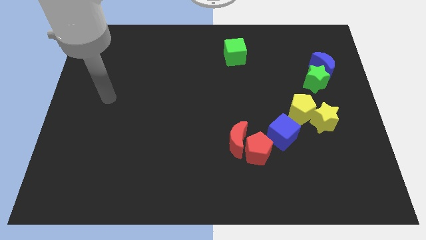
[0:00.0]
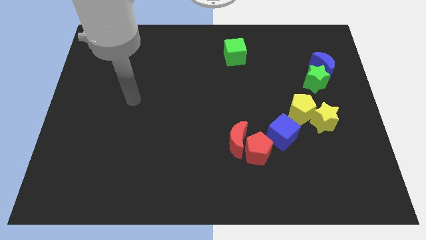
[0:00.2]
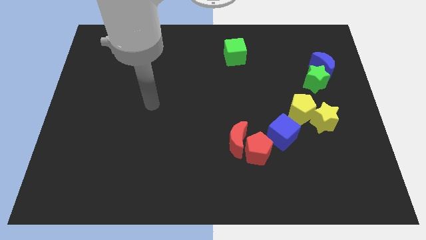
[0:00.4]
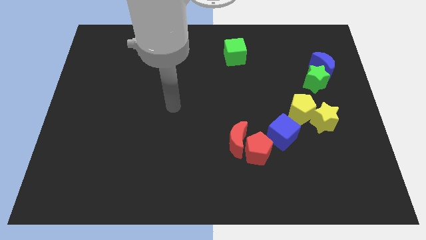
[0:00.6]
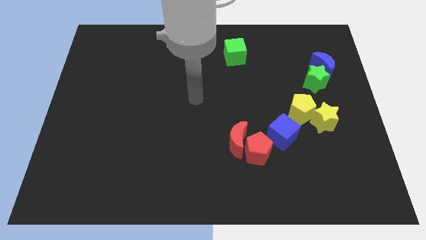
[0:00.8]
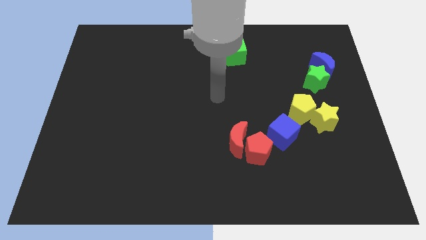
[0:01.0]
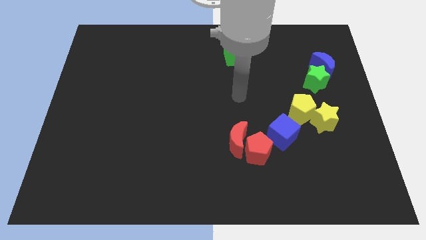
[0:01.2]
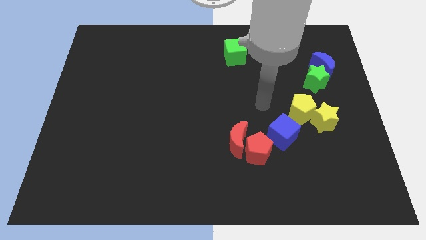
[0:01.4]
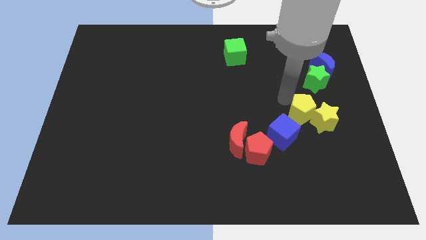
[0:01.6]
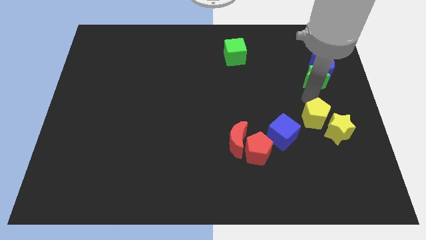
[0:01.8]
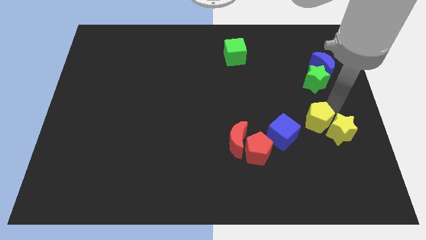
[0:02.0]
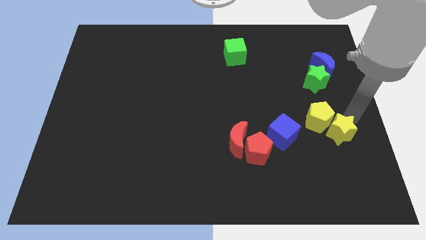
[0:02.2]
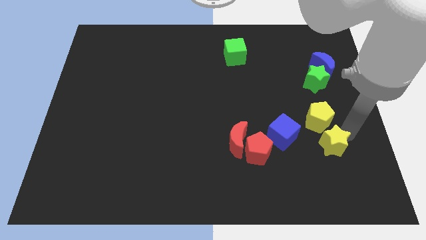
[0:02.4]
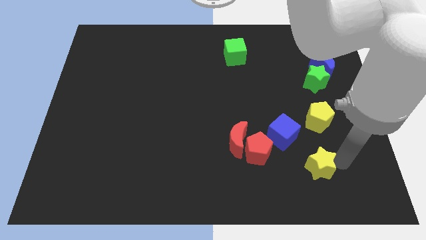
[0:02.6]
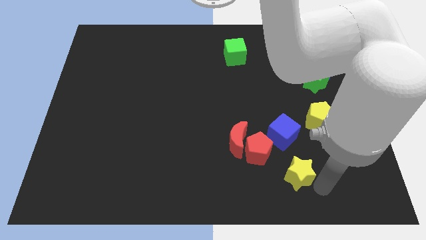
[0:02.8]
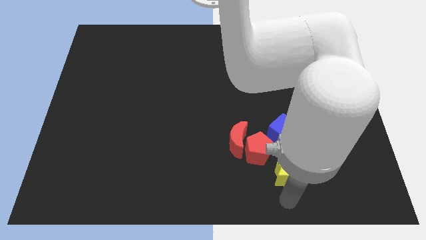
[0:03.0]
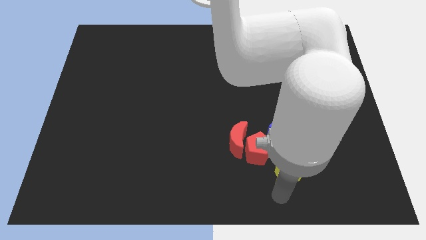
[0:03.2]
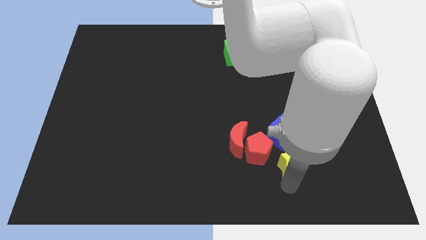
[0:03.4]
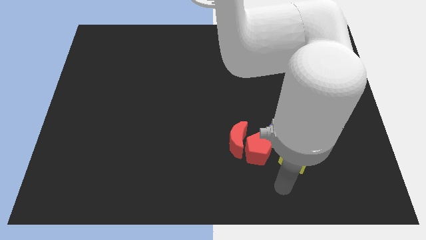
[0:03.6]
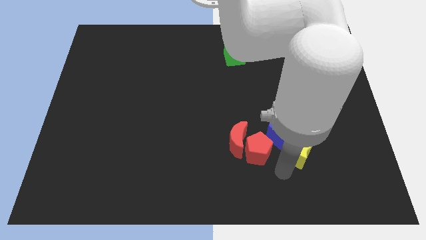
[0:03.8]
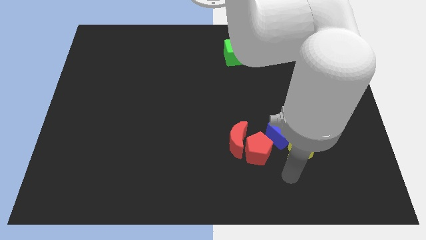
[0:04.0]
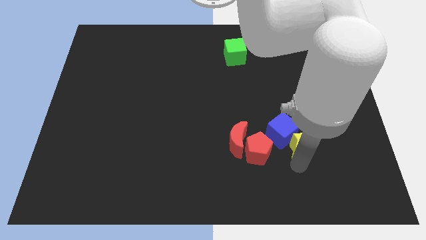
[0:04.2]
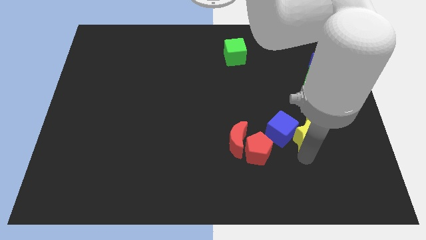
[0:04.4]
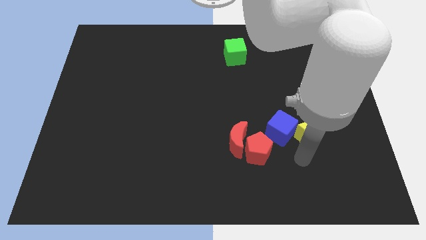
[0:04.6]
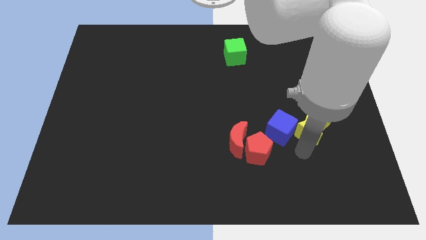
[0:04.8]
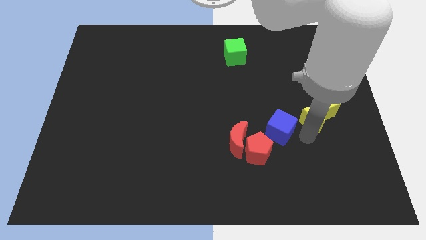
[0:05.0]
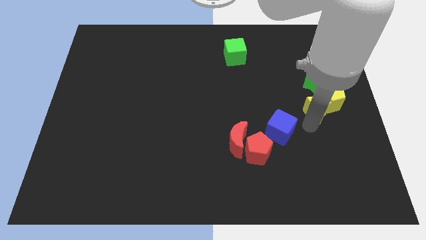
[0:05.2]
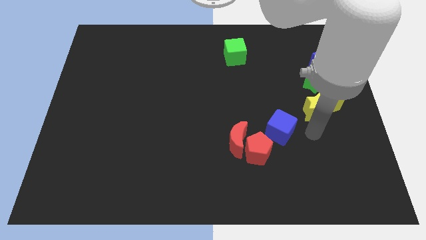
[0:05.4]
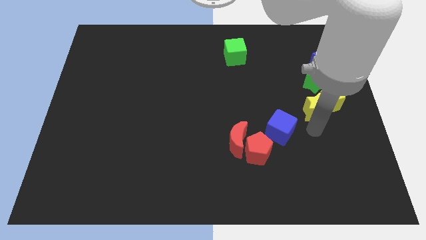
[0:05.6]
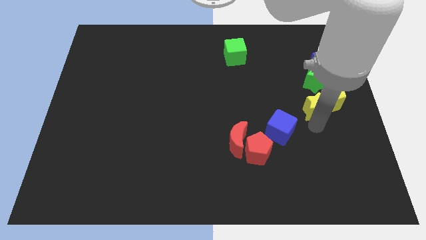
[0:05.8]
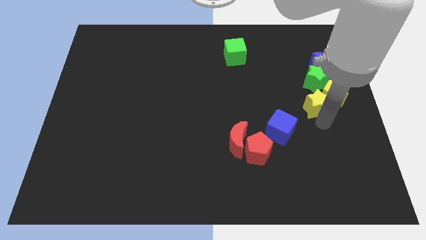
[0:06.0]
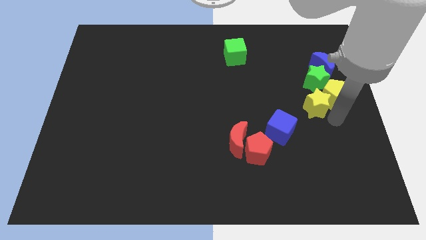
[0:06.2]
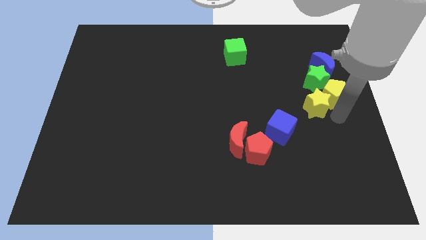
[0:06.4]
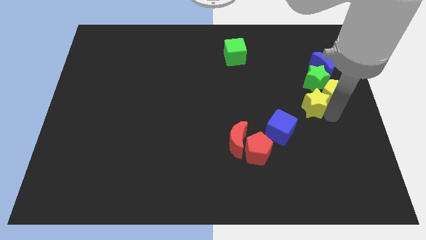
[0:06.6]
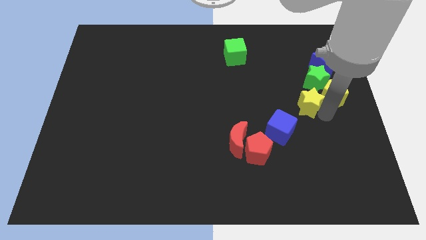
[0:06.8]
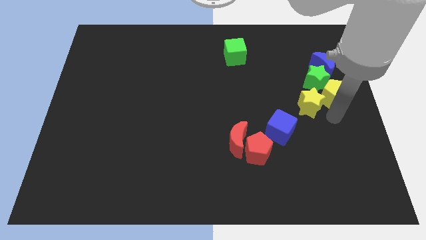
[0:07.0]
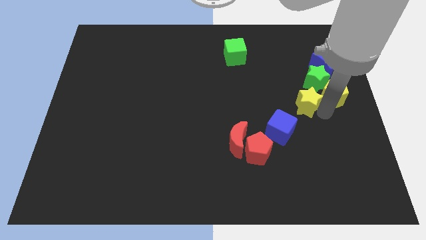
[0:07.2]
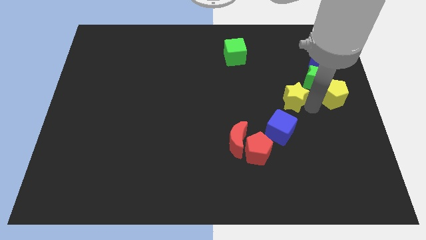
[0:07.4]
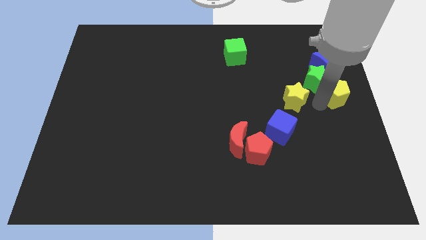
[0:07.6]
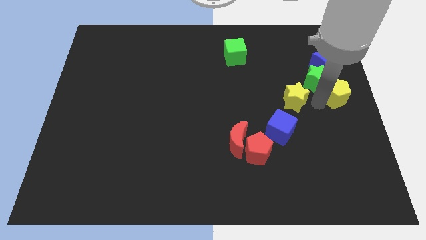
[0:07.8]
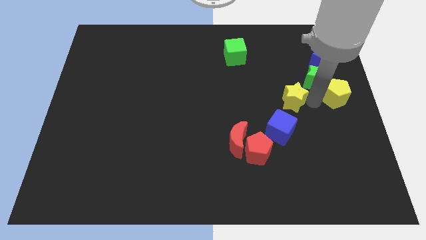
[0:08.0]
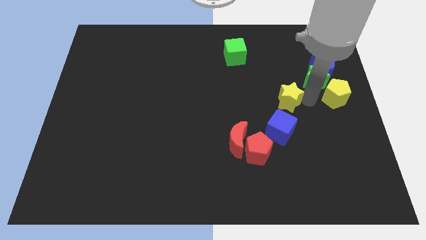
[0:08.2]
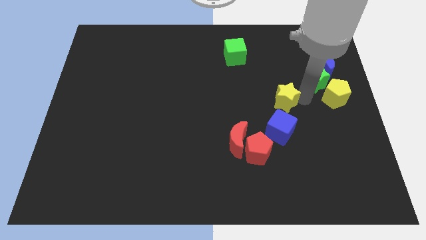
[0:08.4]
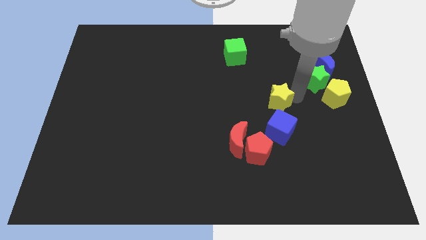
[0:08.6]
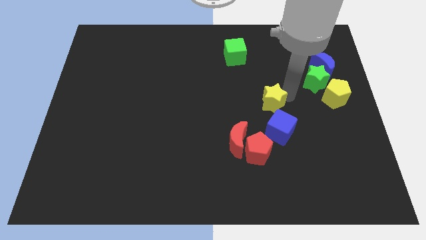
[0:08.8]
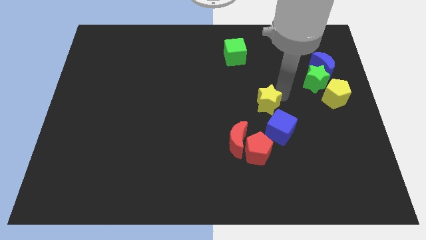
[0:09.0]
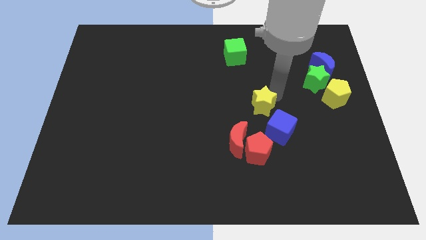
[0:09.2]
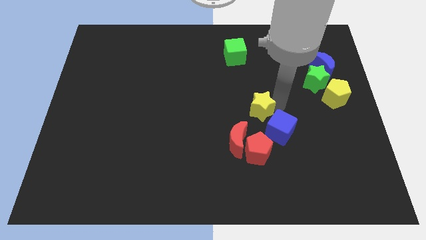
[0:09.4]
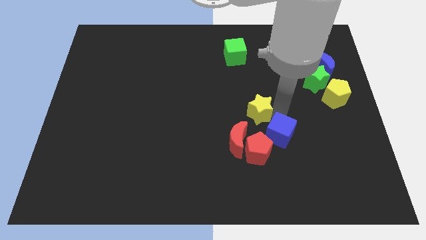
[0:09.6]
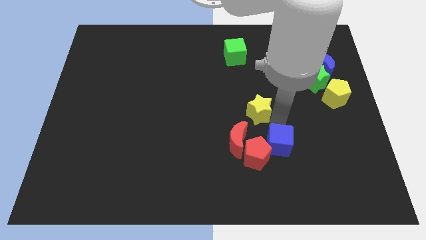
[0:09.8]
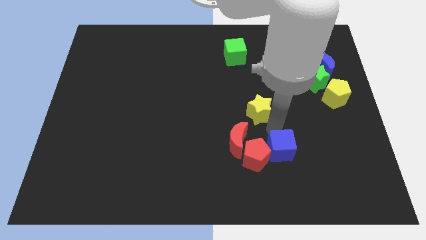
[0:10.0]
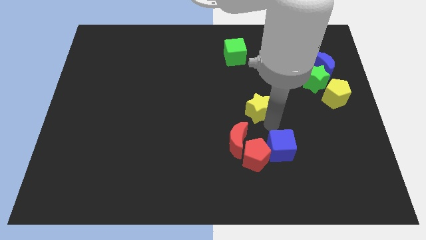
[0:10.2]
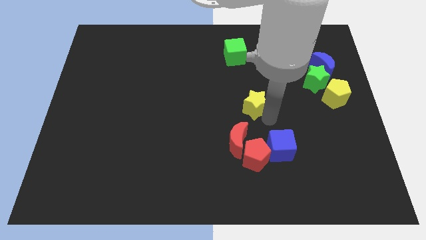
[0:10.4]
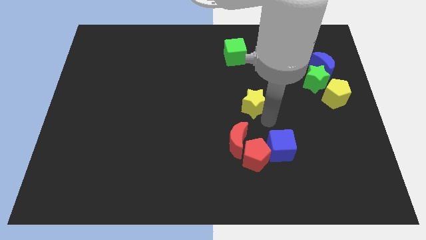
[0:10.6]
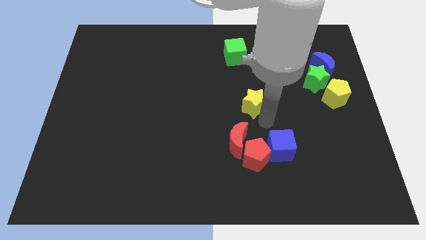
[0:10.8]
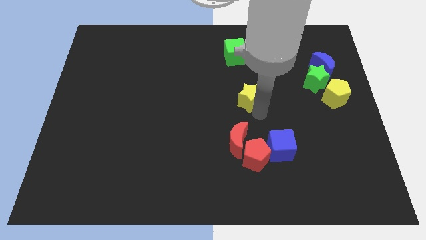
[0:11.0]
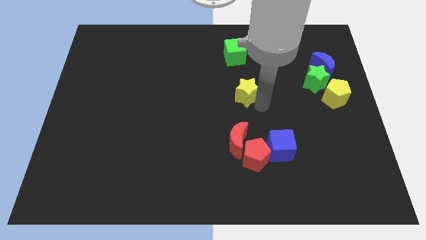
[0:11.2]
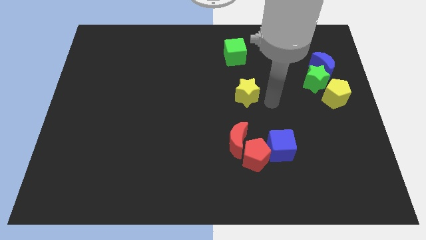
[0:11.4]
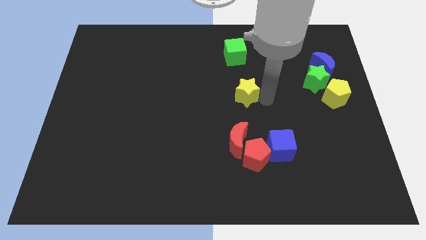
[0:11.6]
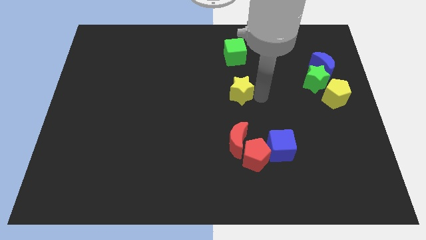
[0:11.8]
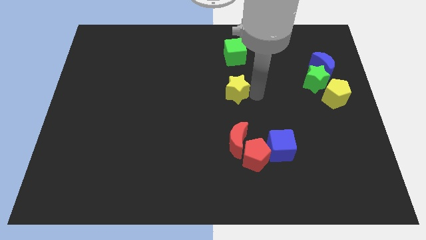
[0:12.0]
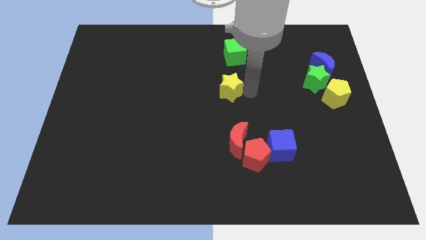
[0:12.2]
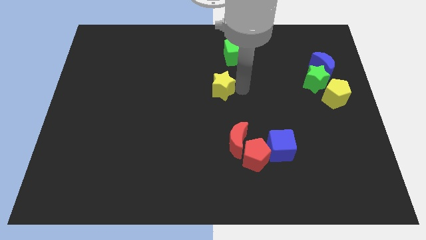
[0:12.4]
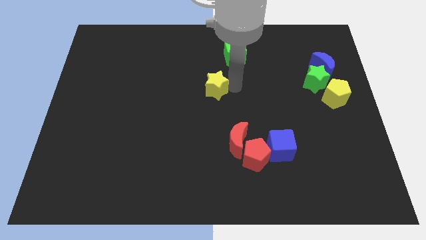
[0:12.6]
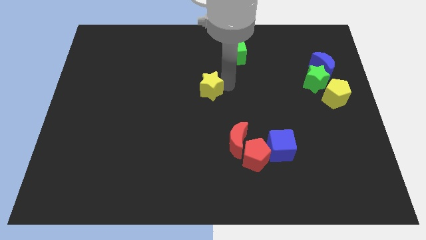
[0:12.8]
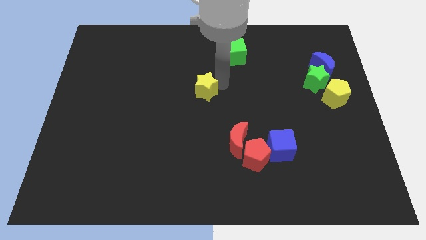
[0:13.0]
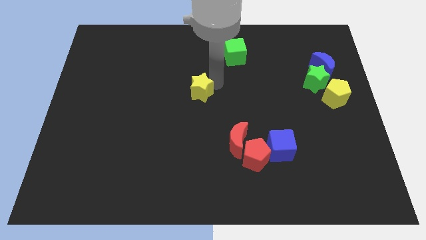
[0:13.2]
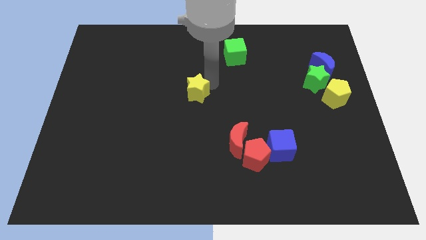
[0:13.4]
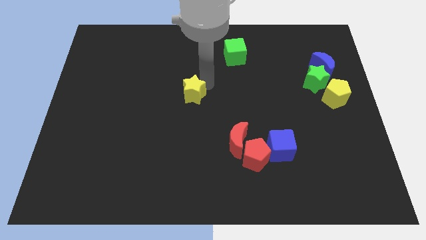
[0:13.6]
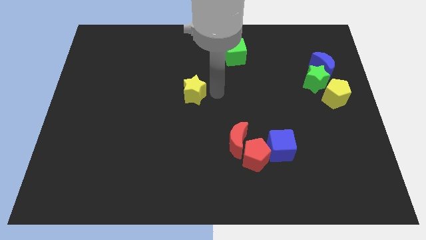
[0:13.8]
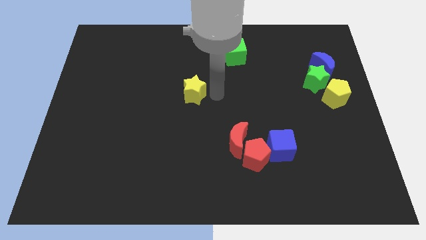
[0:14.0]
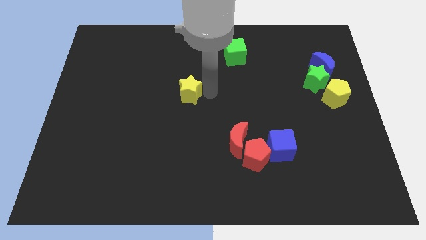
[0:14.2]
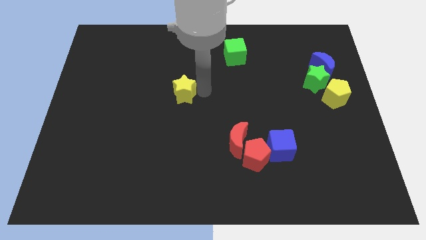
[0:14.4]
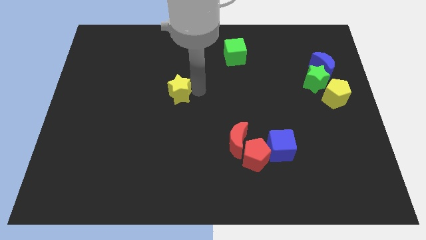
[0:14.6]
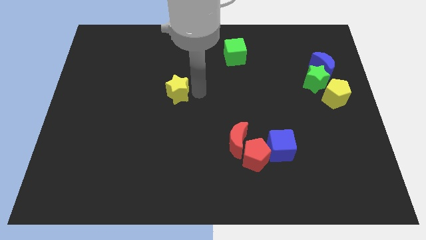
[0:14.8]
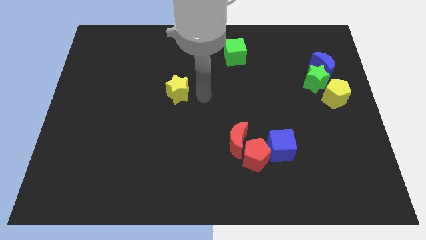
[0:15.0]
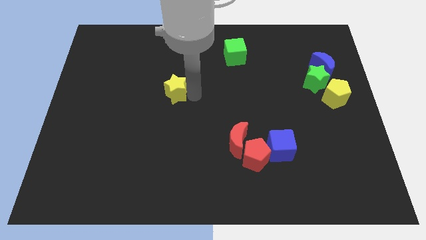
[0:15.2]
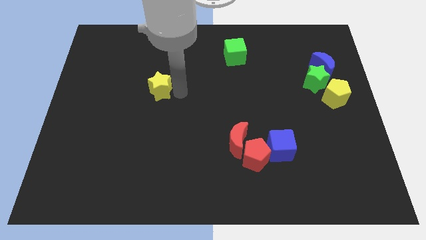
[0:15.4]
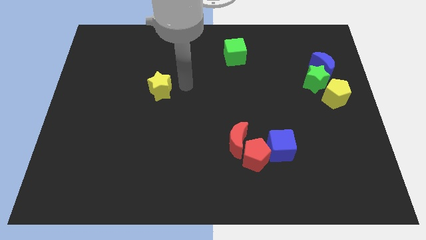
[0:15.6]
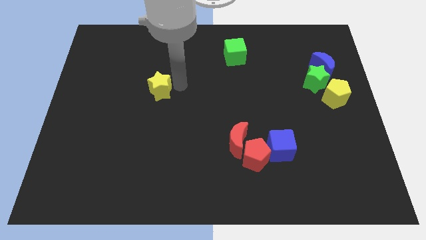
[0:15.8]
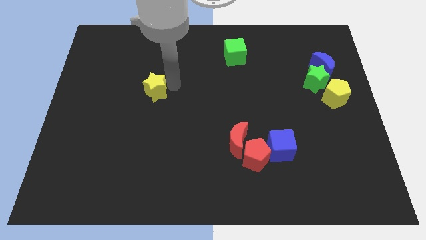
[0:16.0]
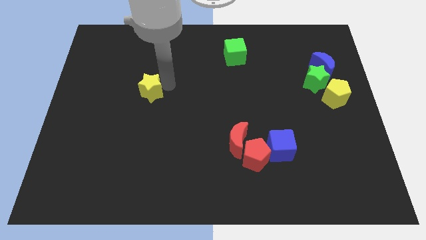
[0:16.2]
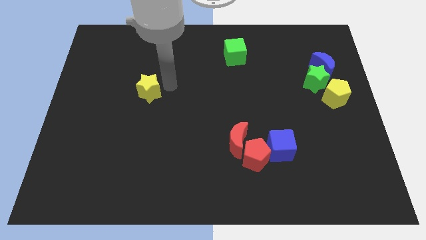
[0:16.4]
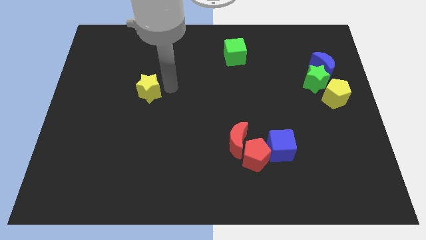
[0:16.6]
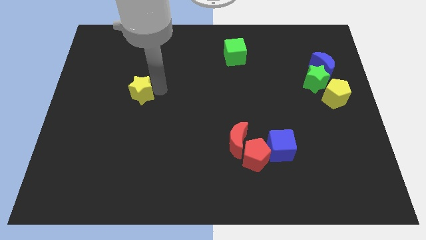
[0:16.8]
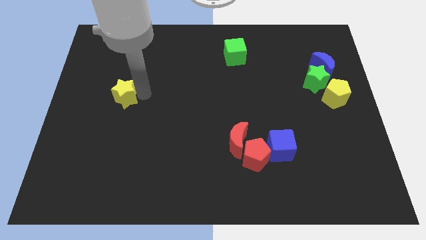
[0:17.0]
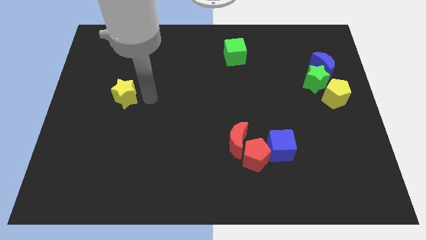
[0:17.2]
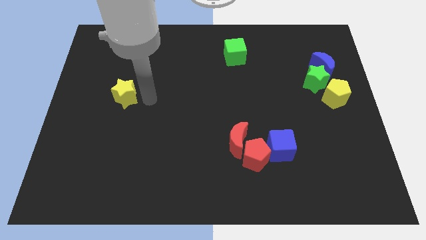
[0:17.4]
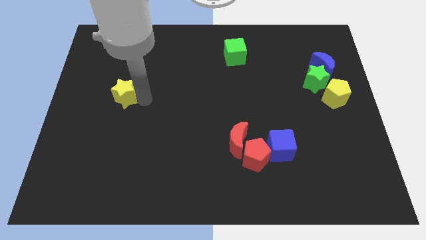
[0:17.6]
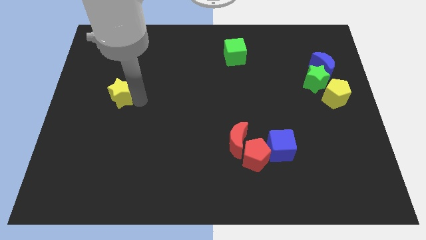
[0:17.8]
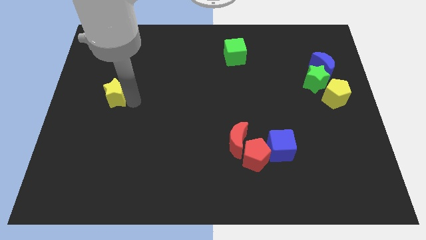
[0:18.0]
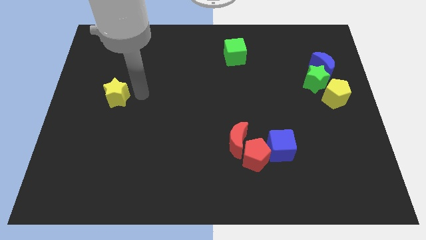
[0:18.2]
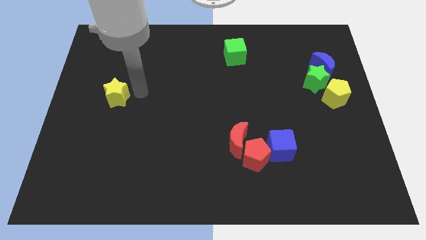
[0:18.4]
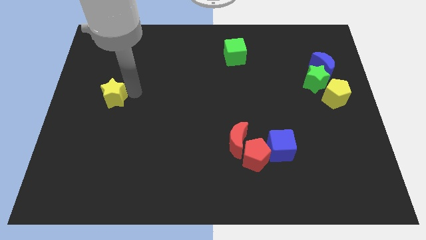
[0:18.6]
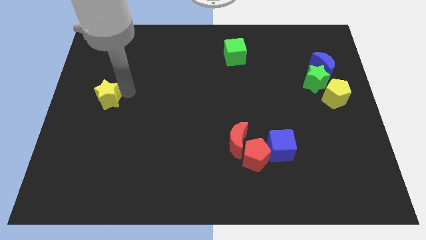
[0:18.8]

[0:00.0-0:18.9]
move the yellow star to the left side of the board
